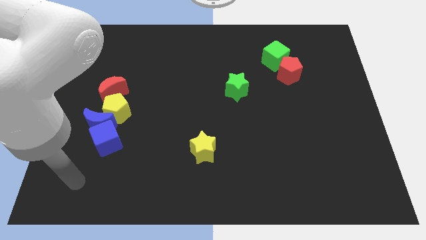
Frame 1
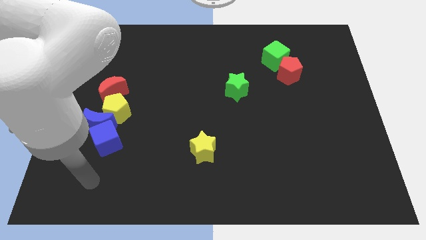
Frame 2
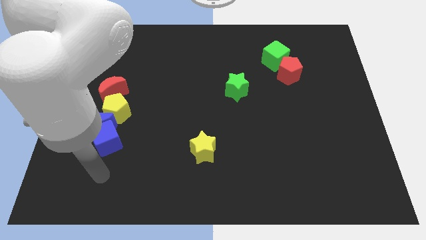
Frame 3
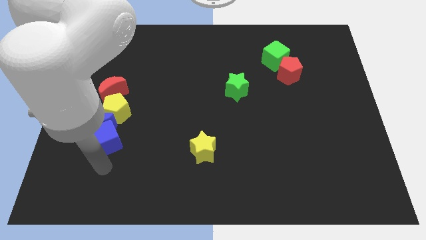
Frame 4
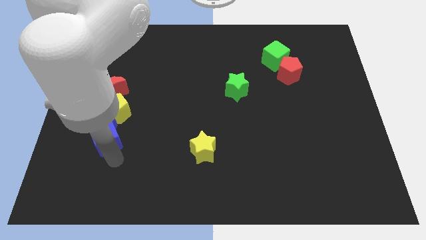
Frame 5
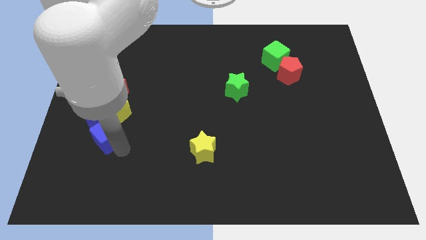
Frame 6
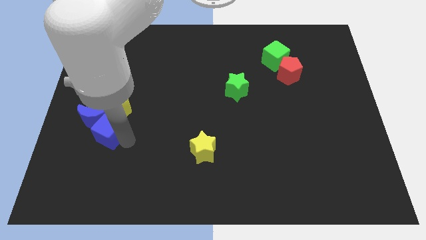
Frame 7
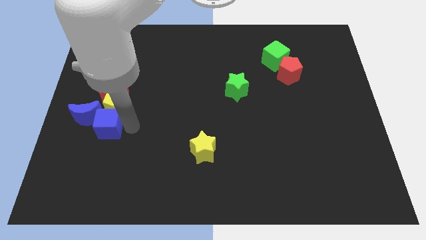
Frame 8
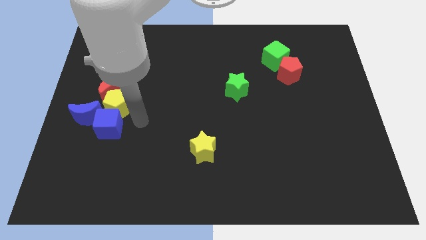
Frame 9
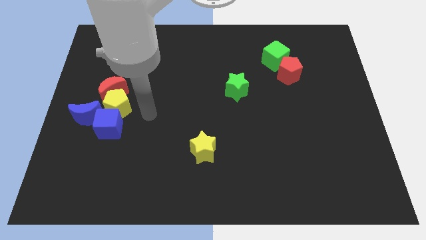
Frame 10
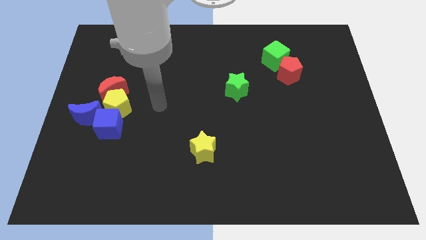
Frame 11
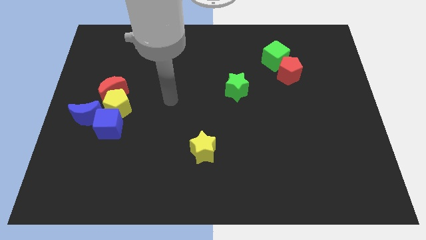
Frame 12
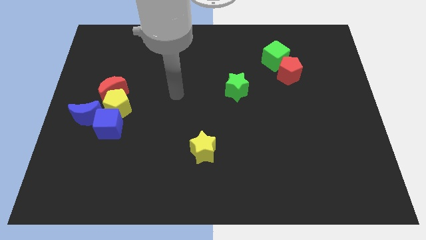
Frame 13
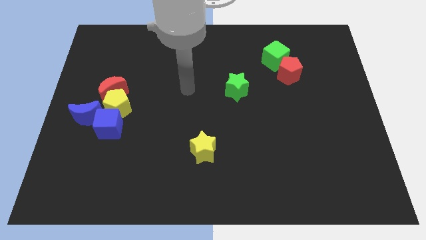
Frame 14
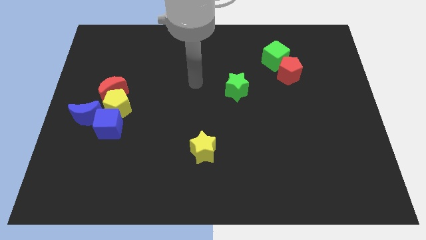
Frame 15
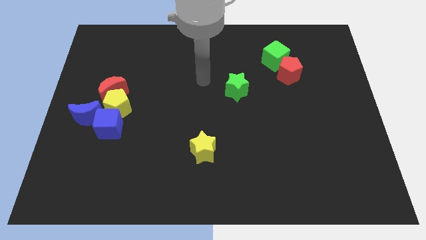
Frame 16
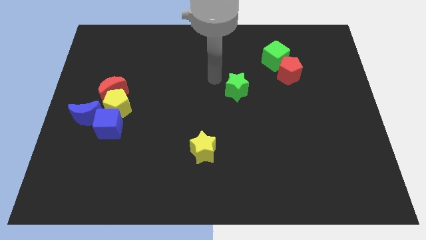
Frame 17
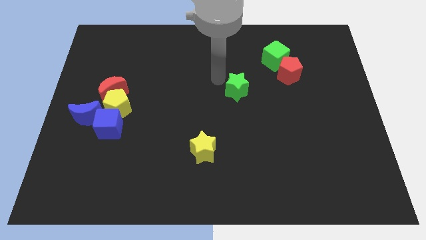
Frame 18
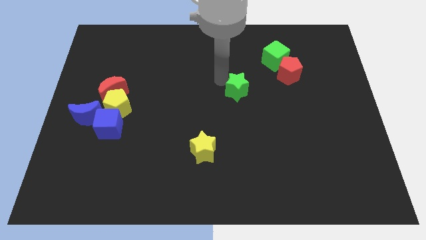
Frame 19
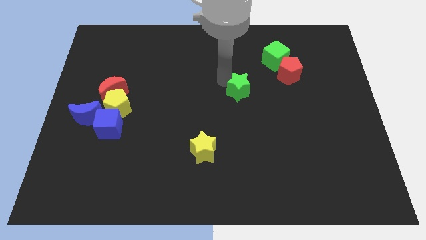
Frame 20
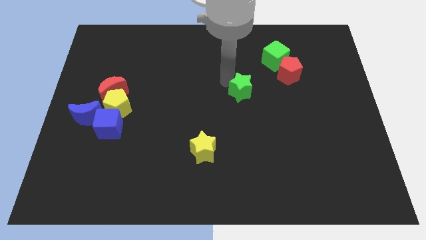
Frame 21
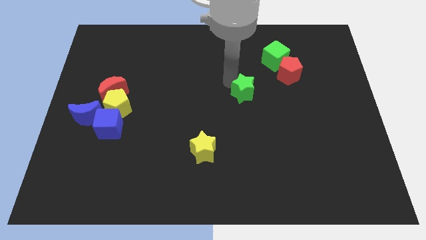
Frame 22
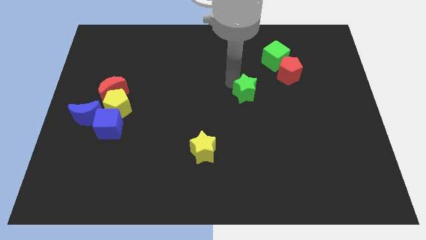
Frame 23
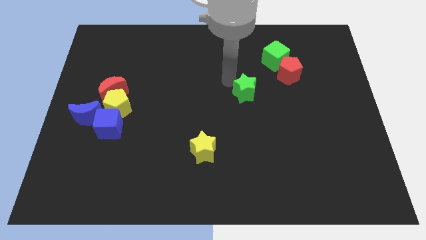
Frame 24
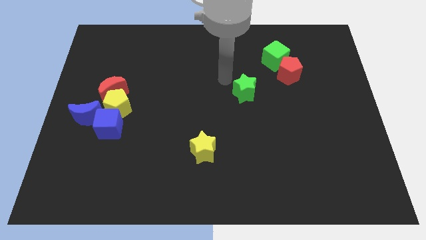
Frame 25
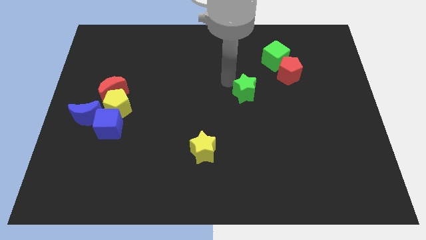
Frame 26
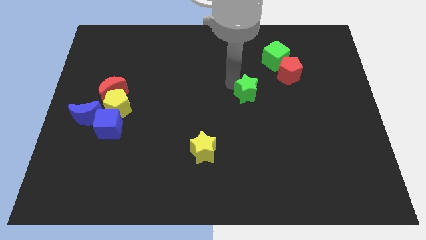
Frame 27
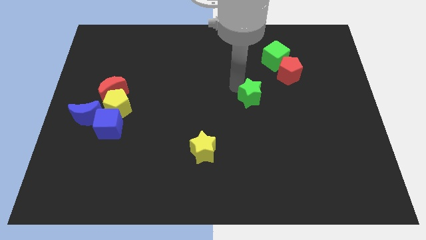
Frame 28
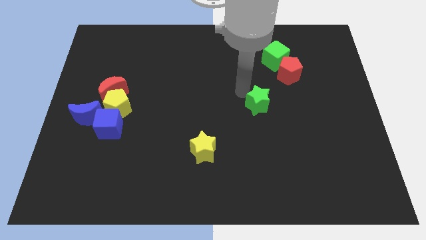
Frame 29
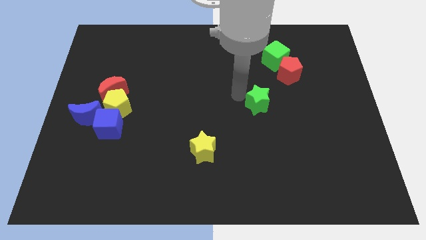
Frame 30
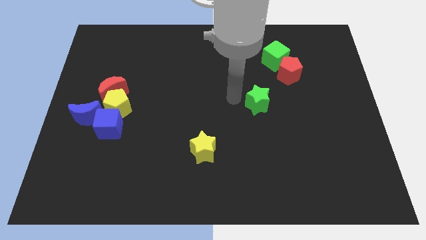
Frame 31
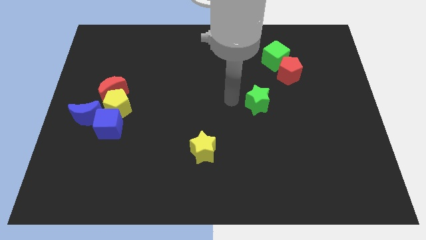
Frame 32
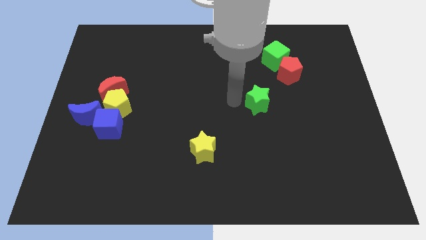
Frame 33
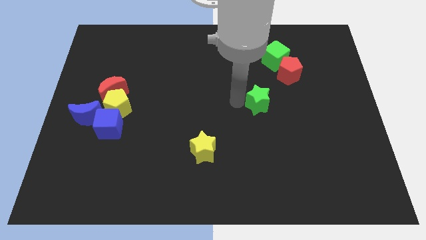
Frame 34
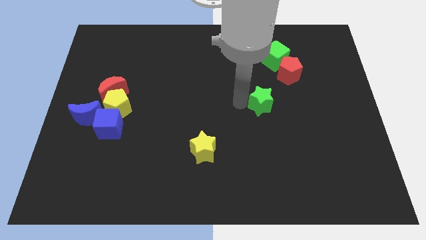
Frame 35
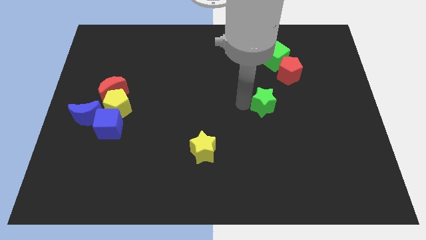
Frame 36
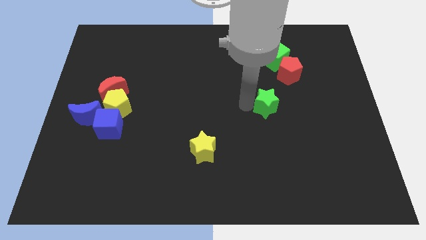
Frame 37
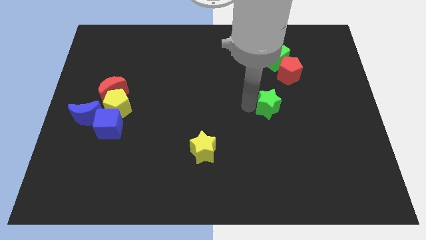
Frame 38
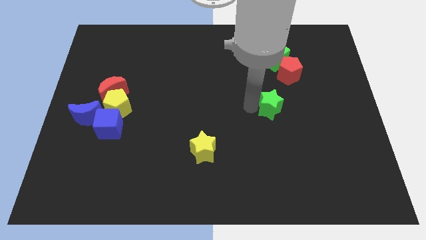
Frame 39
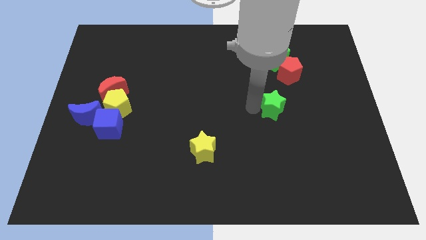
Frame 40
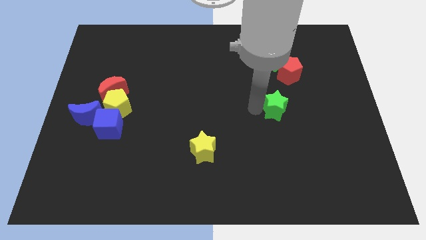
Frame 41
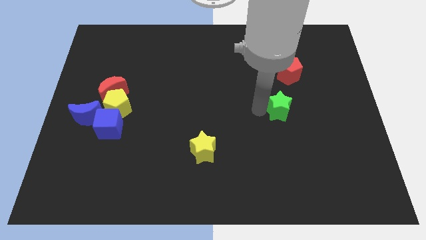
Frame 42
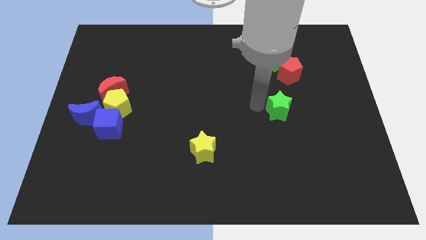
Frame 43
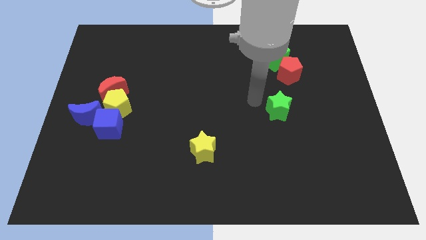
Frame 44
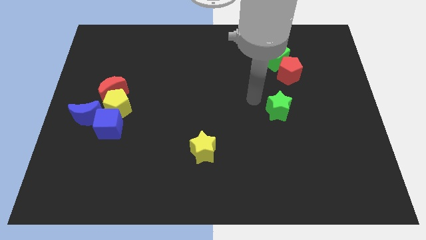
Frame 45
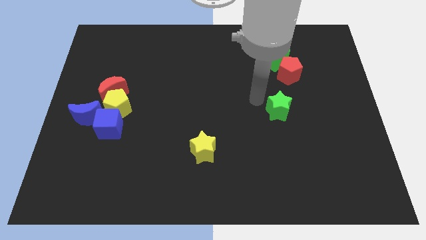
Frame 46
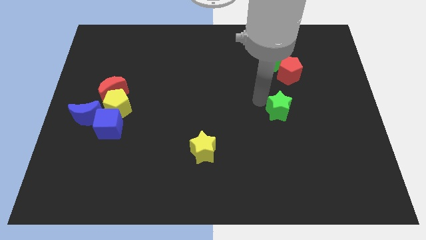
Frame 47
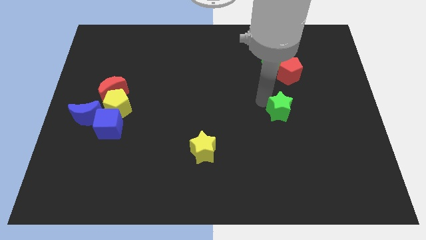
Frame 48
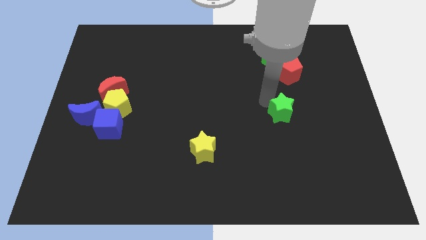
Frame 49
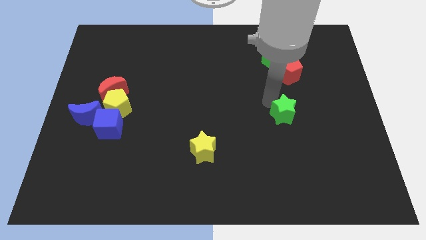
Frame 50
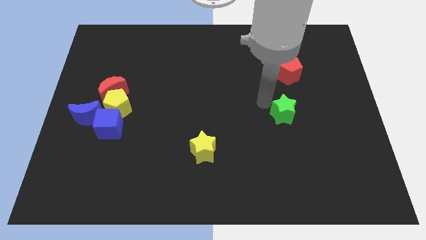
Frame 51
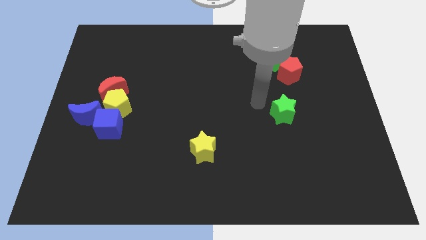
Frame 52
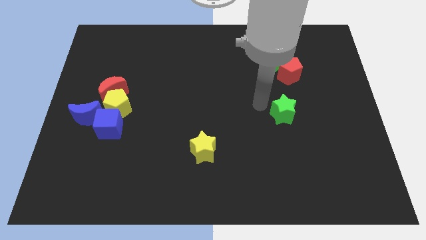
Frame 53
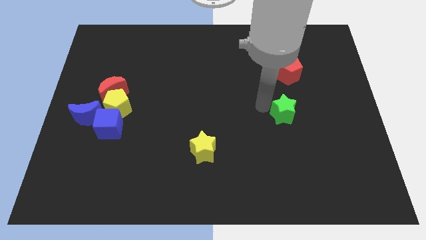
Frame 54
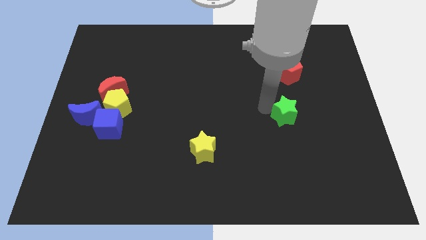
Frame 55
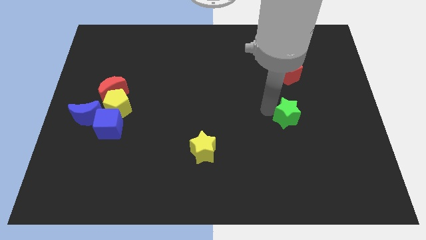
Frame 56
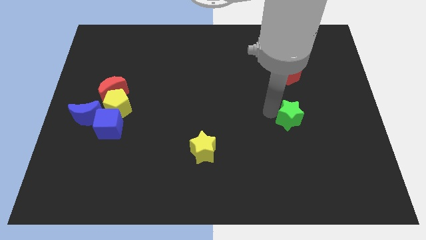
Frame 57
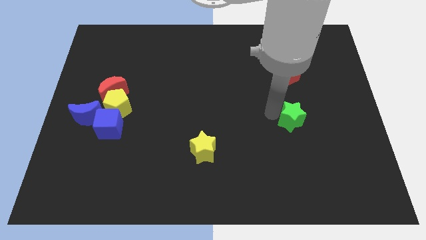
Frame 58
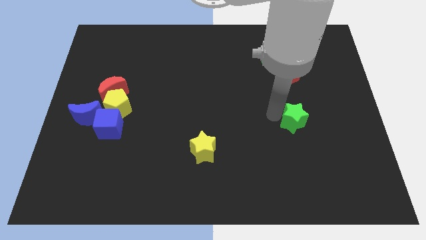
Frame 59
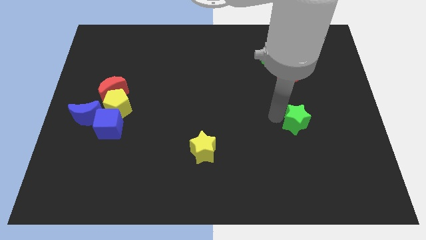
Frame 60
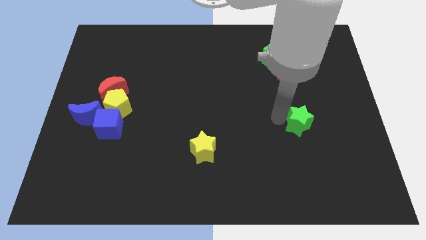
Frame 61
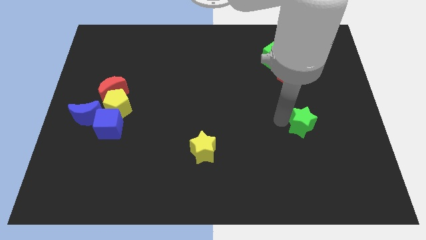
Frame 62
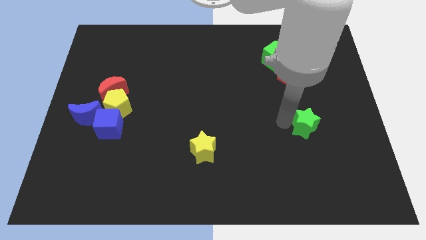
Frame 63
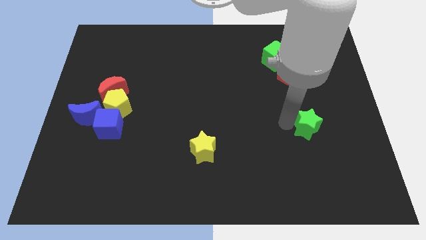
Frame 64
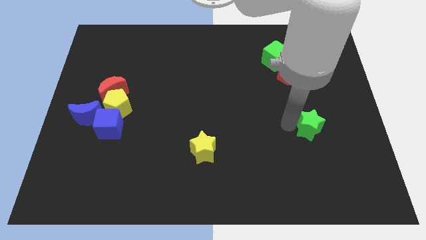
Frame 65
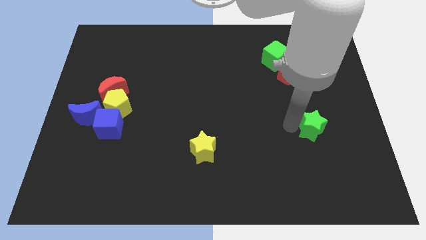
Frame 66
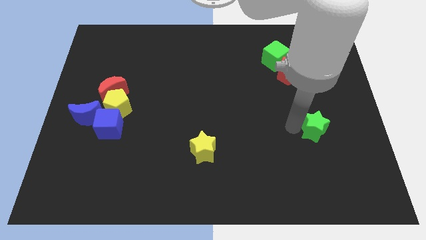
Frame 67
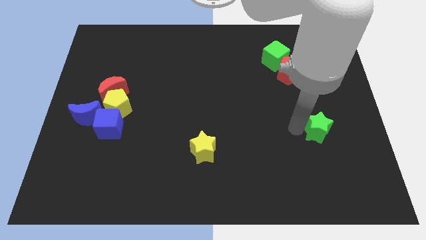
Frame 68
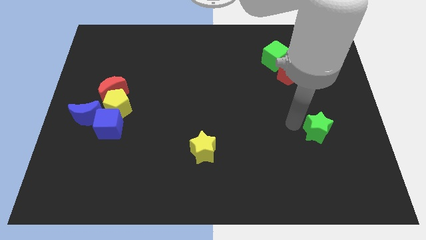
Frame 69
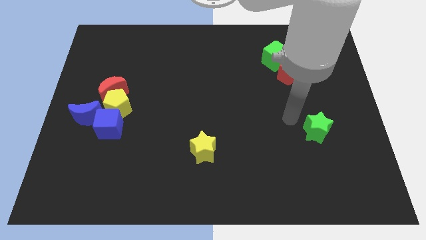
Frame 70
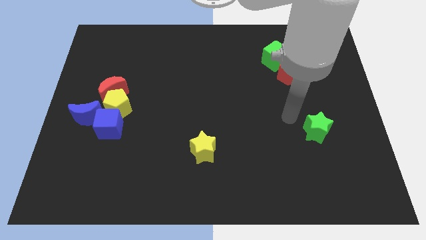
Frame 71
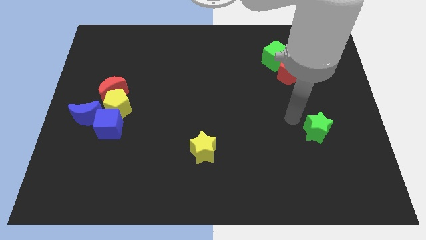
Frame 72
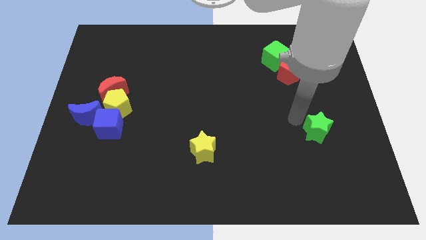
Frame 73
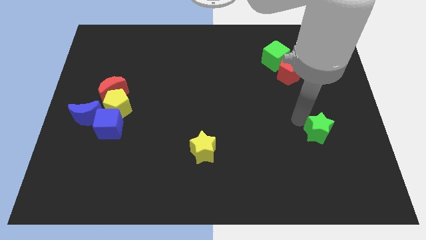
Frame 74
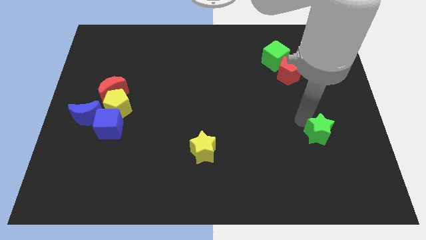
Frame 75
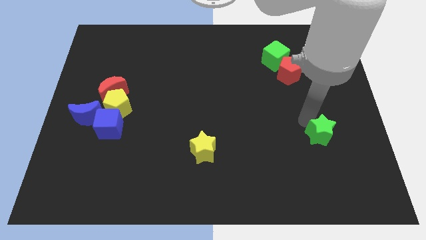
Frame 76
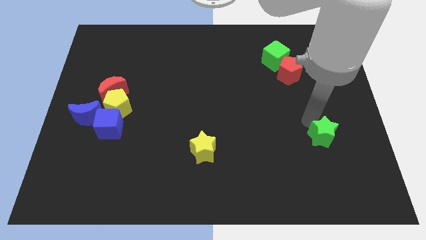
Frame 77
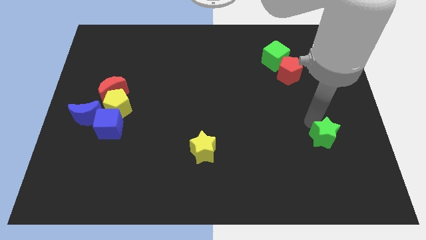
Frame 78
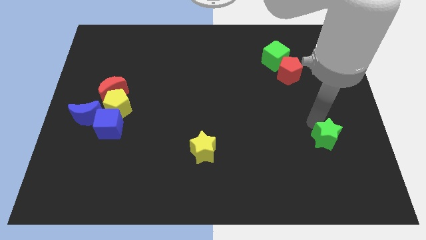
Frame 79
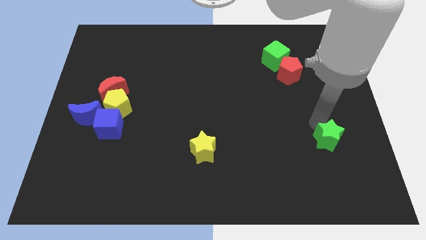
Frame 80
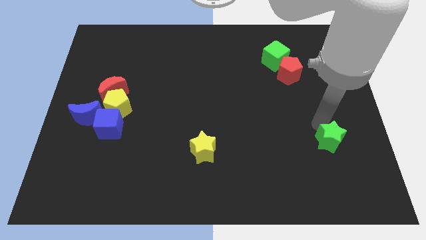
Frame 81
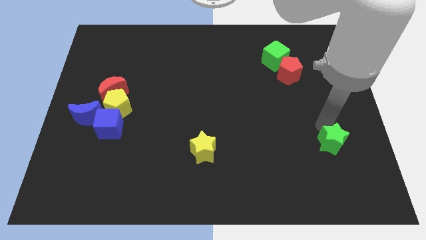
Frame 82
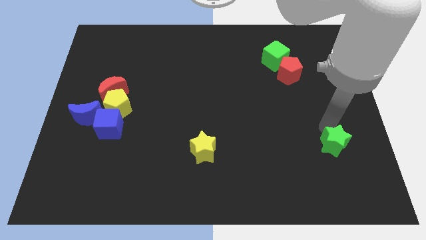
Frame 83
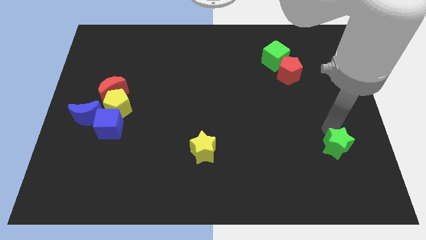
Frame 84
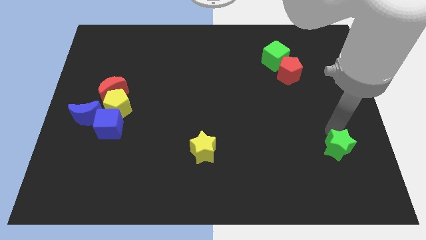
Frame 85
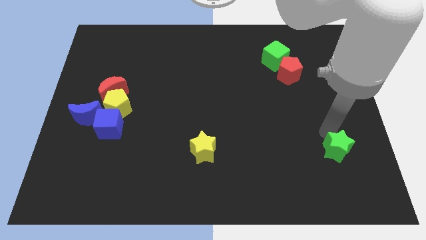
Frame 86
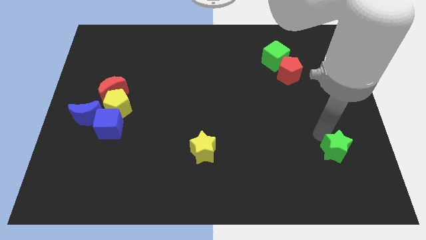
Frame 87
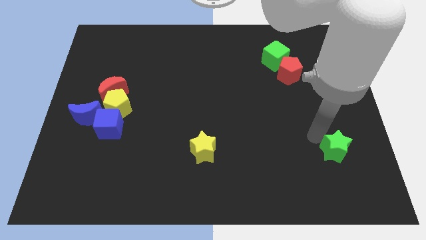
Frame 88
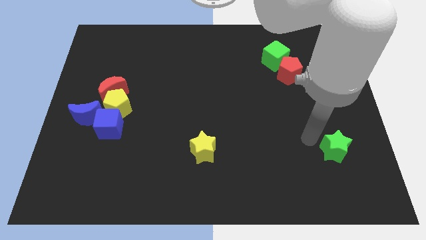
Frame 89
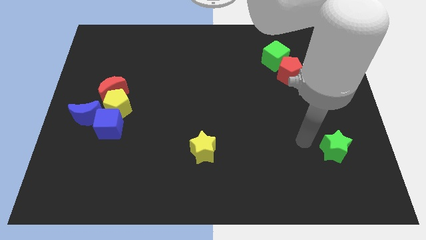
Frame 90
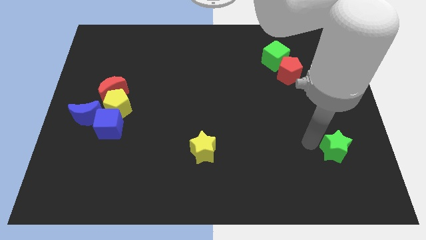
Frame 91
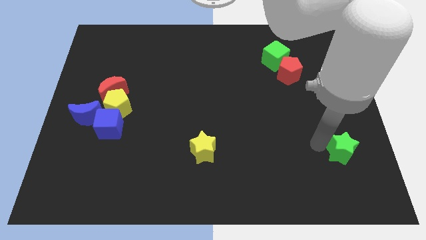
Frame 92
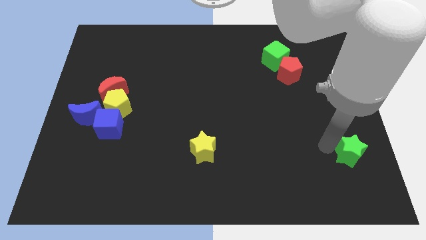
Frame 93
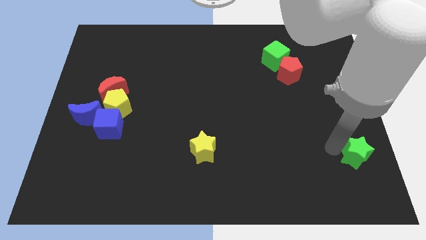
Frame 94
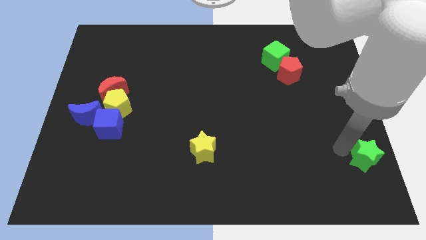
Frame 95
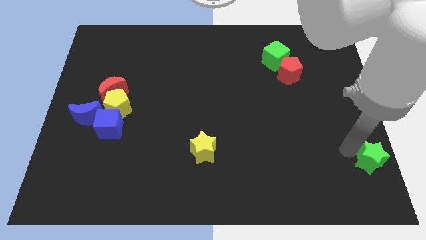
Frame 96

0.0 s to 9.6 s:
put the green star to the lower right corner
